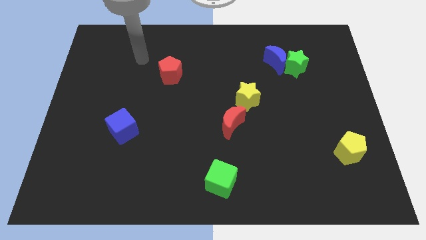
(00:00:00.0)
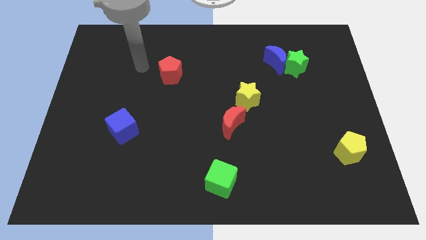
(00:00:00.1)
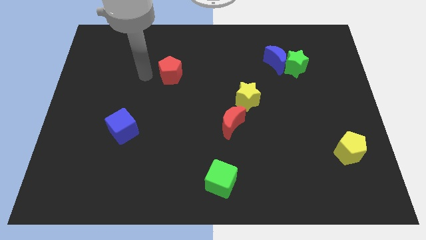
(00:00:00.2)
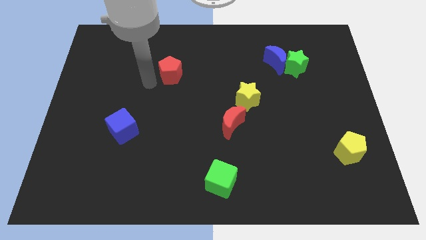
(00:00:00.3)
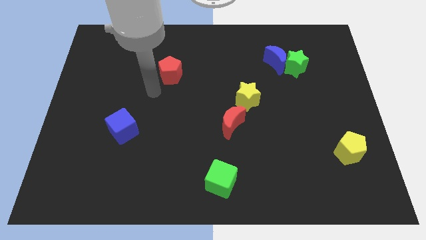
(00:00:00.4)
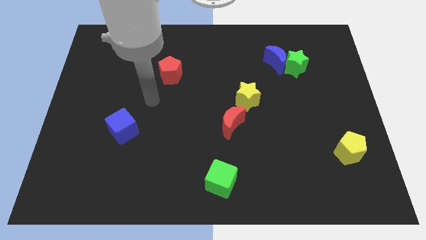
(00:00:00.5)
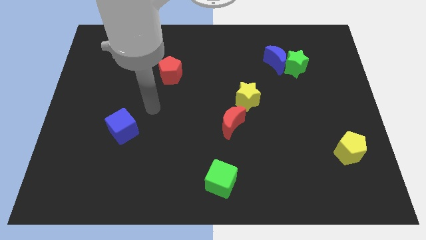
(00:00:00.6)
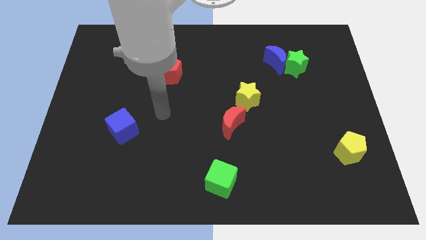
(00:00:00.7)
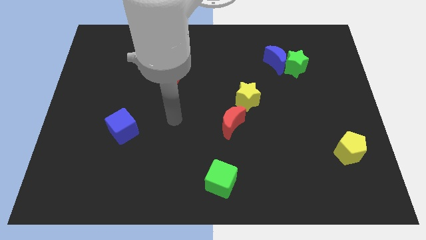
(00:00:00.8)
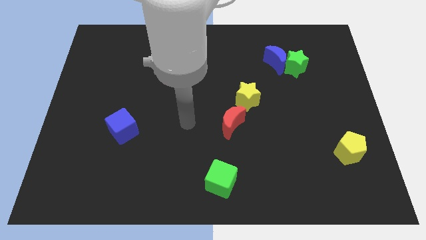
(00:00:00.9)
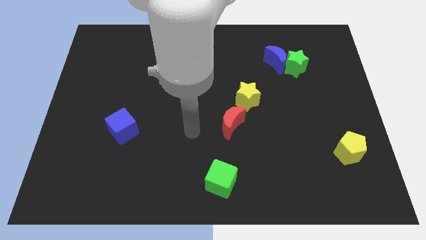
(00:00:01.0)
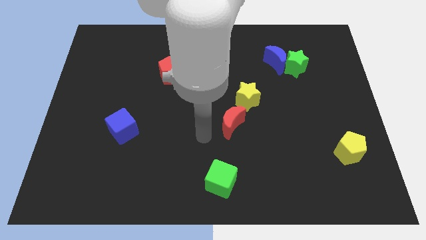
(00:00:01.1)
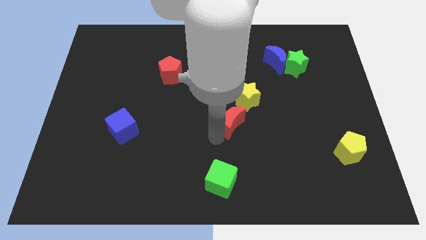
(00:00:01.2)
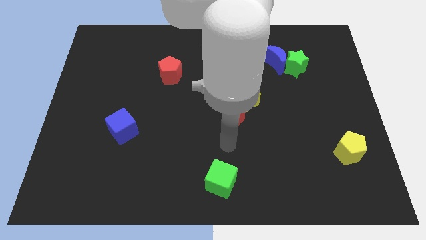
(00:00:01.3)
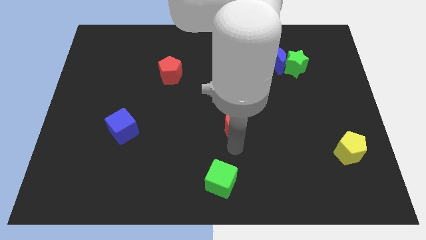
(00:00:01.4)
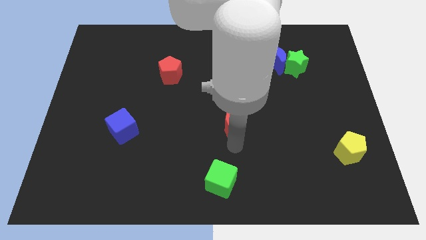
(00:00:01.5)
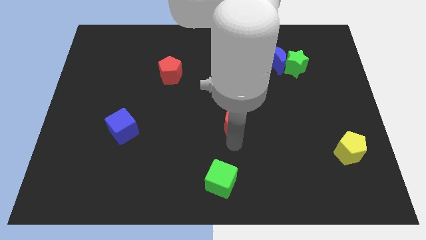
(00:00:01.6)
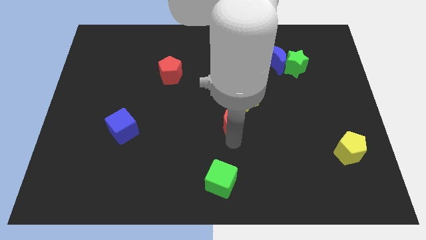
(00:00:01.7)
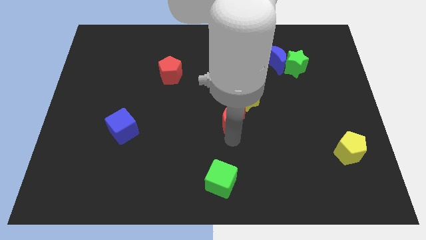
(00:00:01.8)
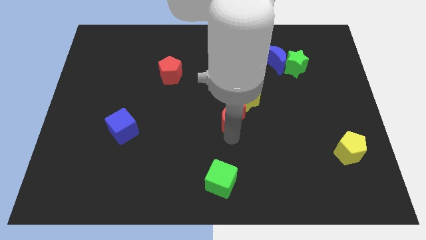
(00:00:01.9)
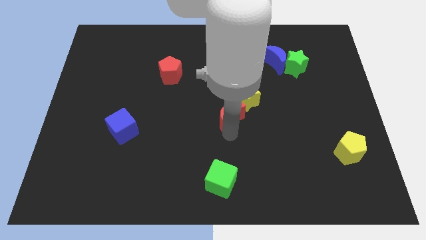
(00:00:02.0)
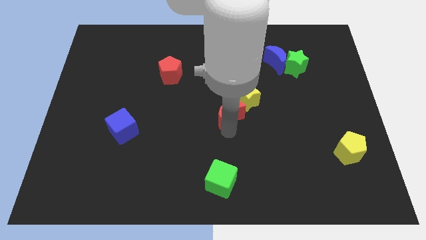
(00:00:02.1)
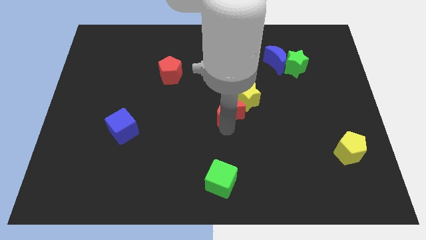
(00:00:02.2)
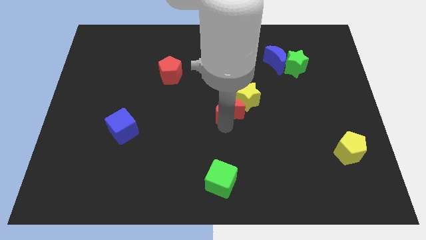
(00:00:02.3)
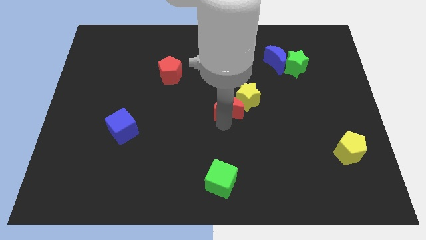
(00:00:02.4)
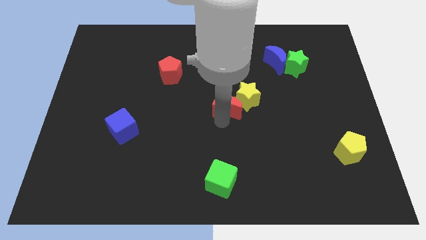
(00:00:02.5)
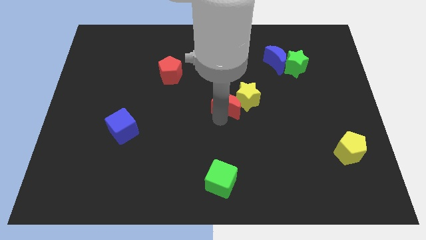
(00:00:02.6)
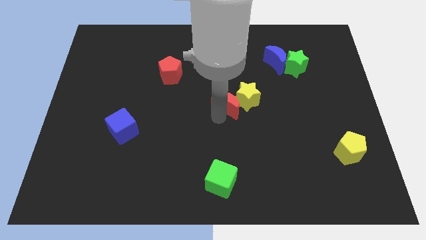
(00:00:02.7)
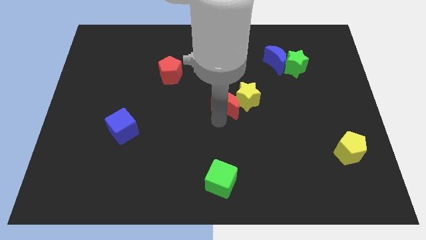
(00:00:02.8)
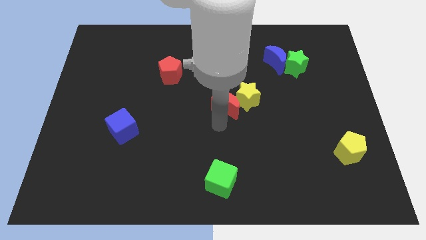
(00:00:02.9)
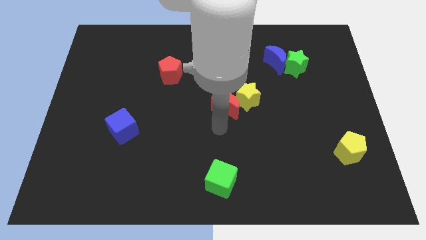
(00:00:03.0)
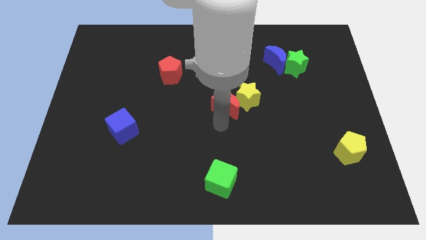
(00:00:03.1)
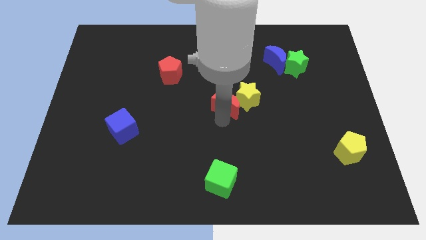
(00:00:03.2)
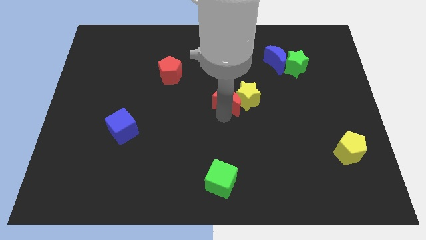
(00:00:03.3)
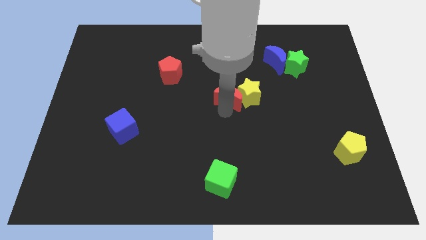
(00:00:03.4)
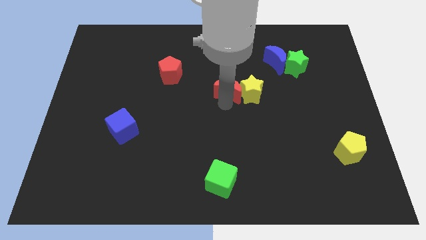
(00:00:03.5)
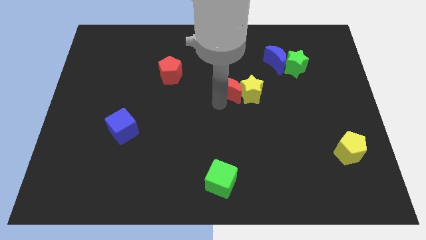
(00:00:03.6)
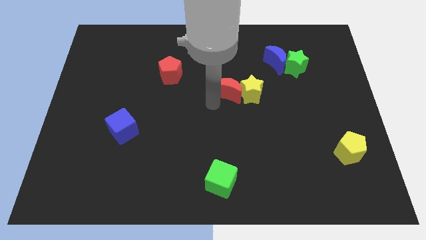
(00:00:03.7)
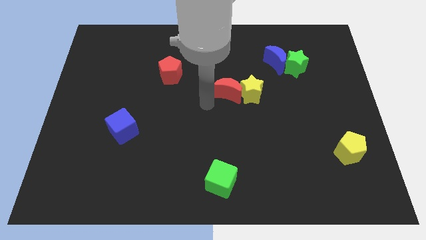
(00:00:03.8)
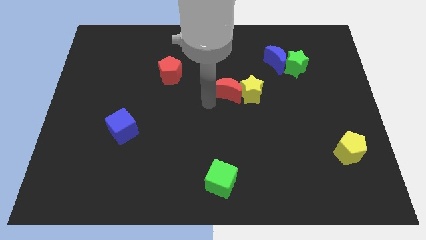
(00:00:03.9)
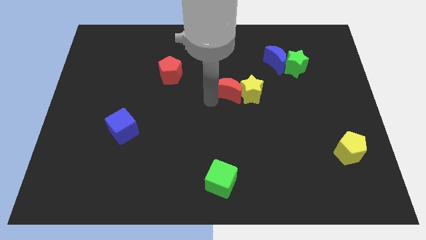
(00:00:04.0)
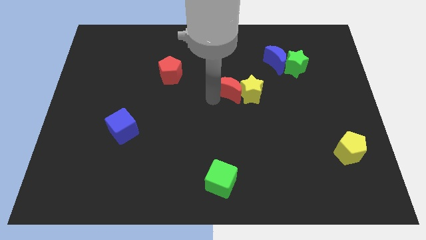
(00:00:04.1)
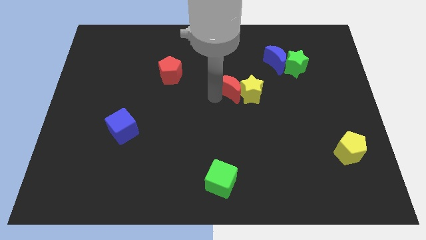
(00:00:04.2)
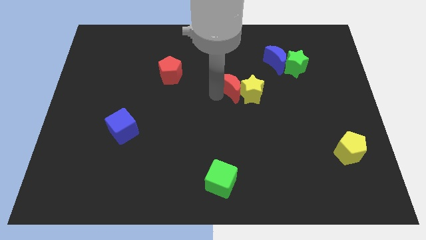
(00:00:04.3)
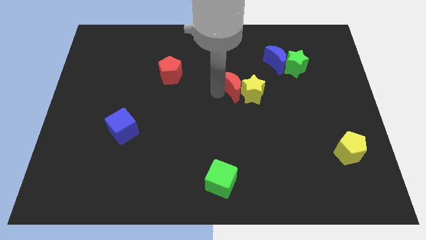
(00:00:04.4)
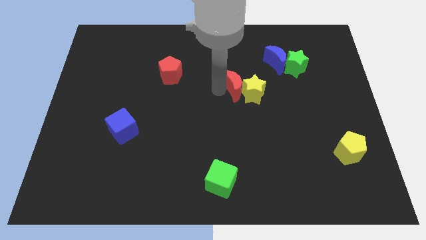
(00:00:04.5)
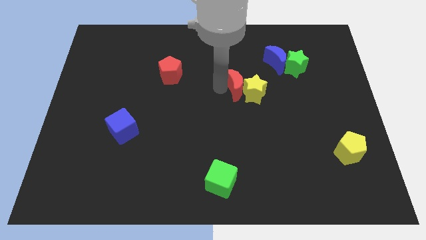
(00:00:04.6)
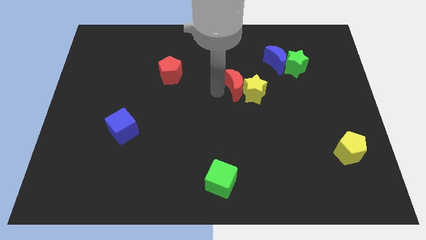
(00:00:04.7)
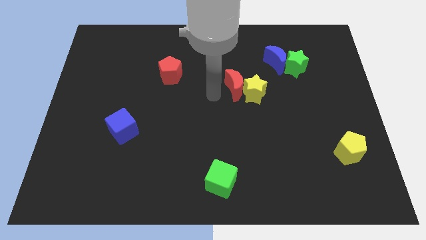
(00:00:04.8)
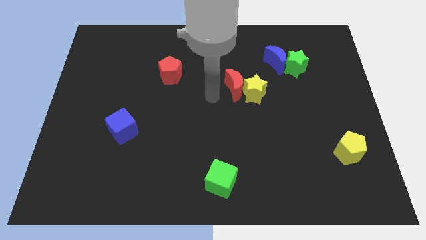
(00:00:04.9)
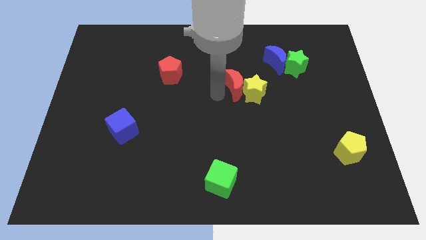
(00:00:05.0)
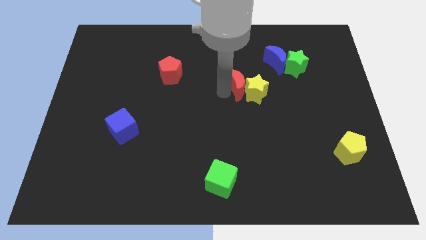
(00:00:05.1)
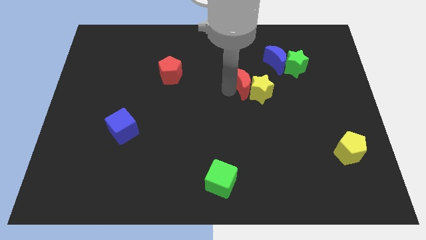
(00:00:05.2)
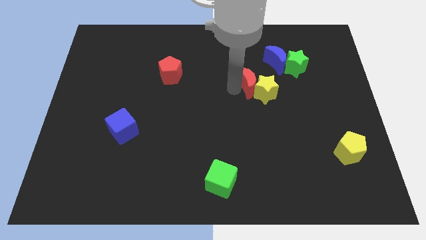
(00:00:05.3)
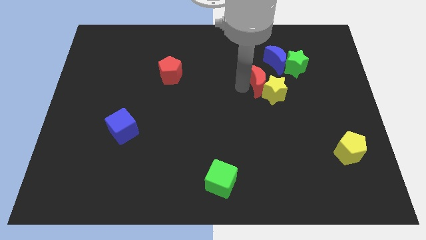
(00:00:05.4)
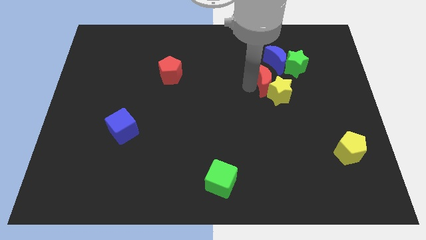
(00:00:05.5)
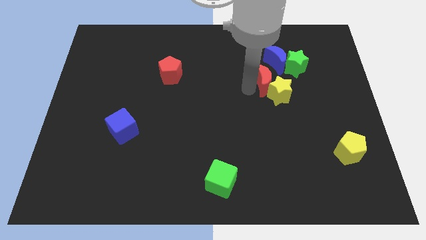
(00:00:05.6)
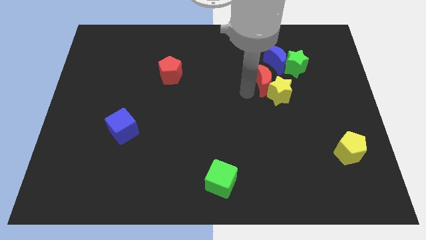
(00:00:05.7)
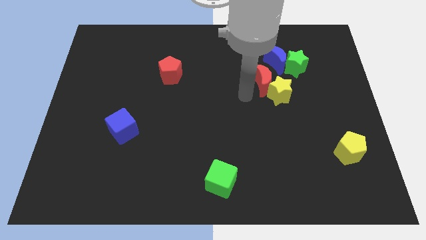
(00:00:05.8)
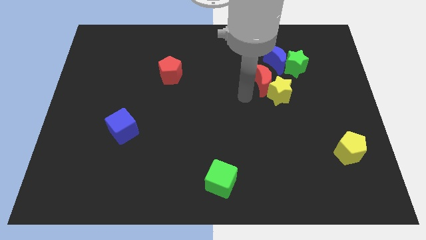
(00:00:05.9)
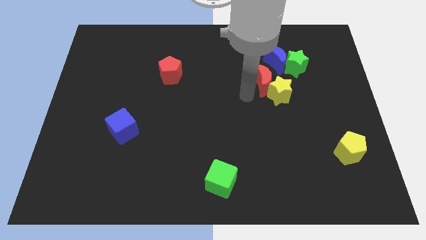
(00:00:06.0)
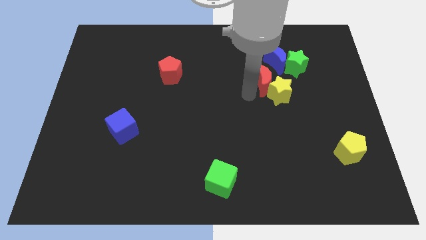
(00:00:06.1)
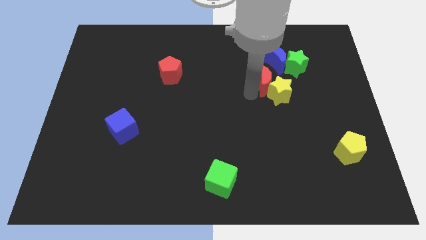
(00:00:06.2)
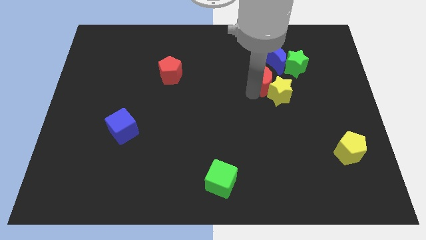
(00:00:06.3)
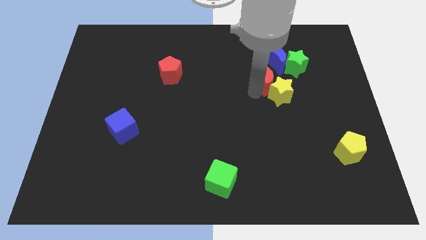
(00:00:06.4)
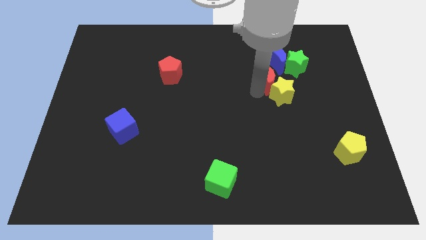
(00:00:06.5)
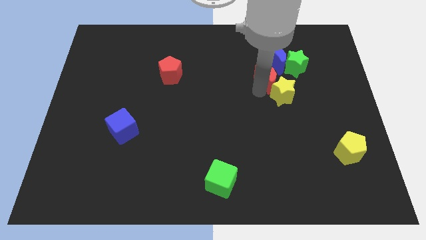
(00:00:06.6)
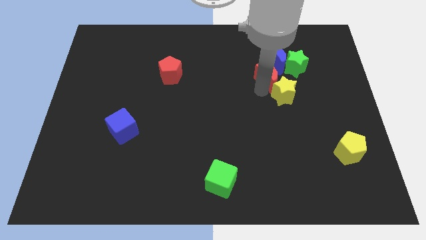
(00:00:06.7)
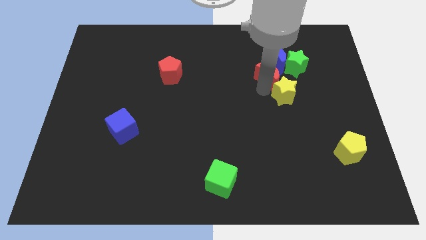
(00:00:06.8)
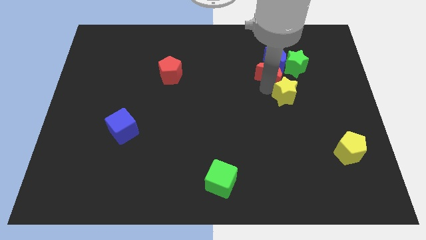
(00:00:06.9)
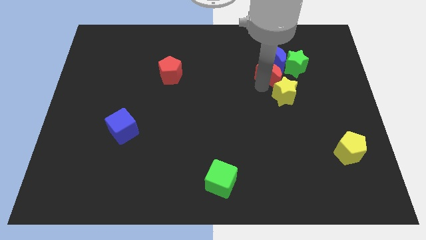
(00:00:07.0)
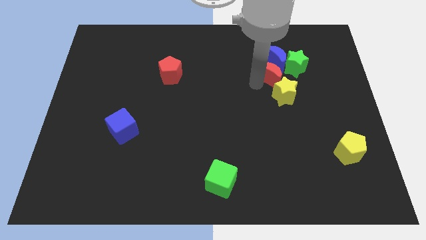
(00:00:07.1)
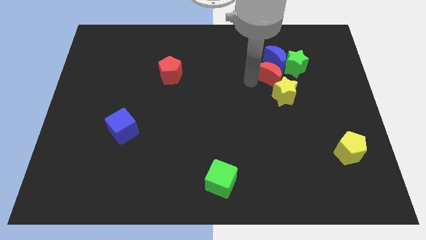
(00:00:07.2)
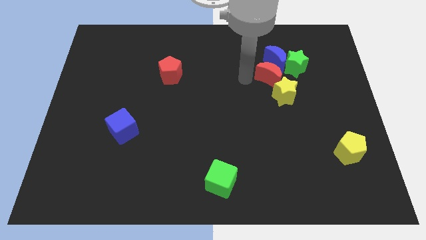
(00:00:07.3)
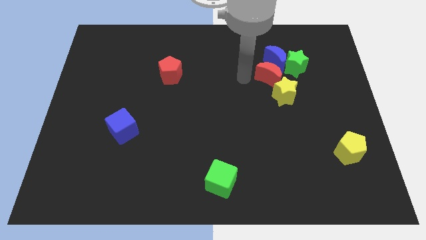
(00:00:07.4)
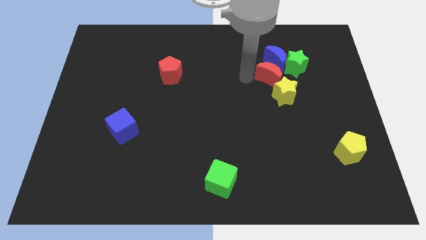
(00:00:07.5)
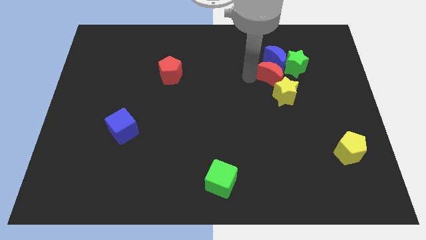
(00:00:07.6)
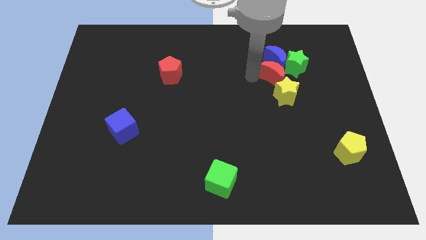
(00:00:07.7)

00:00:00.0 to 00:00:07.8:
put the red moon to the bottom right side of the blue moon
